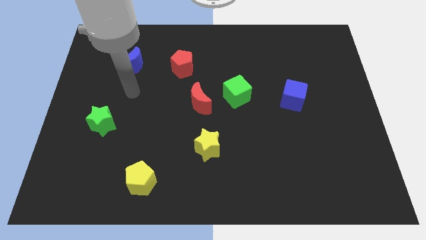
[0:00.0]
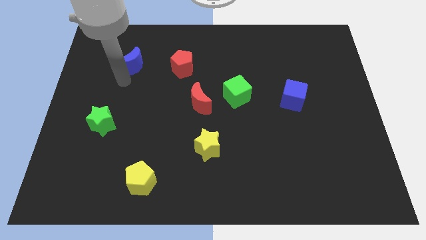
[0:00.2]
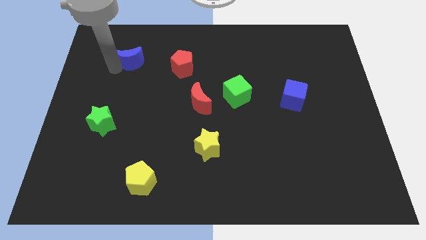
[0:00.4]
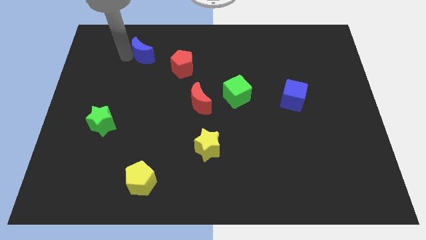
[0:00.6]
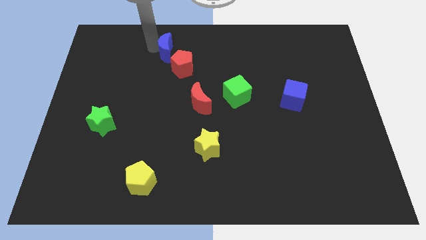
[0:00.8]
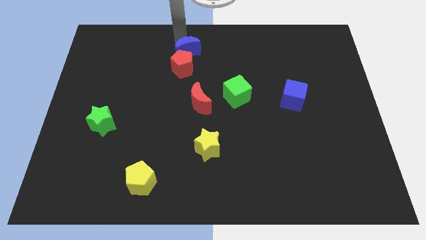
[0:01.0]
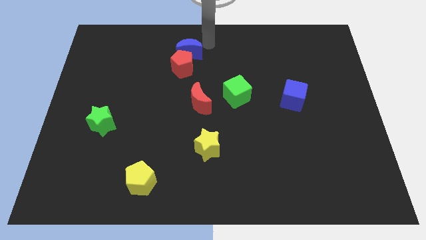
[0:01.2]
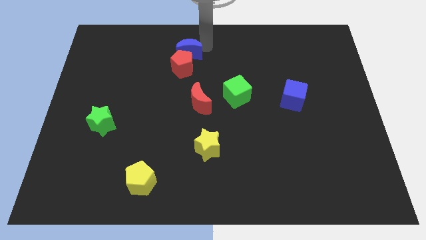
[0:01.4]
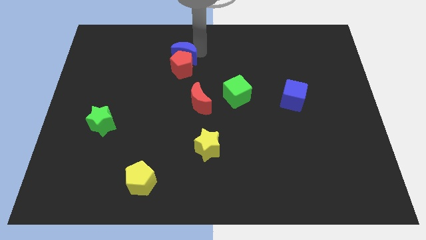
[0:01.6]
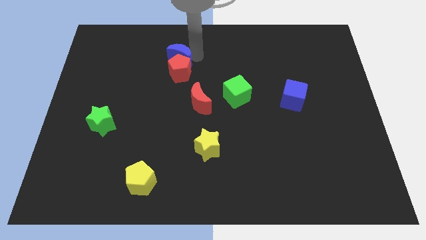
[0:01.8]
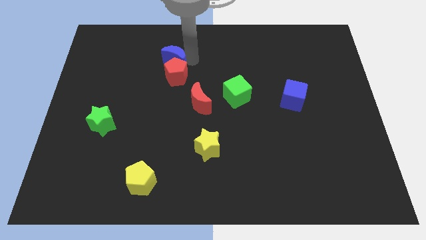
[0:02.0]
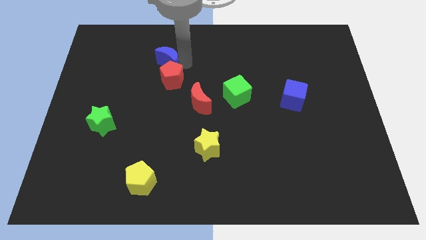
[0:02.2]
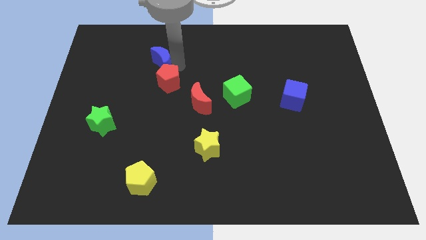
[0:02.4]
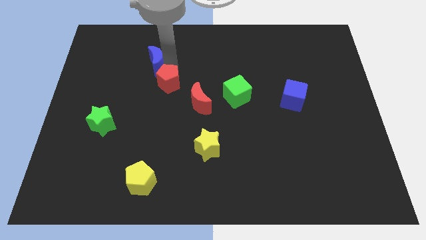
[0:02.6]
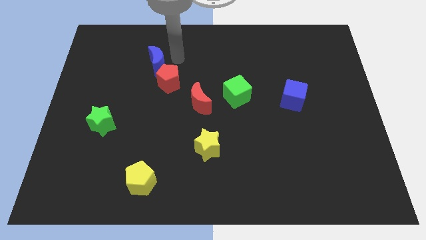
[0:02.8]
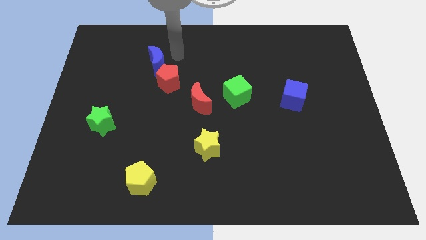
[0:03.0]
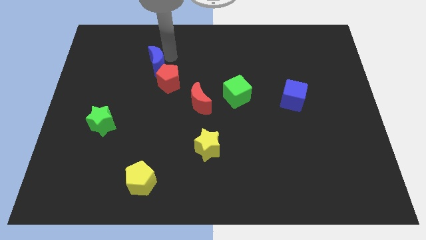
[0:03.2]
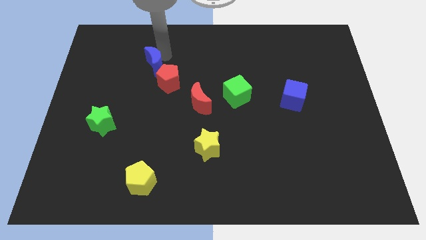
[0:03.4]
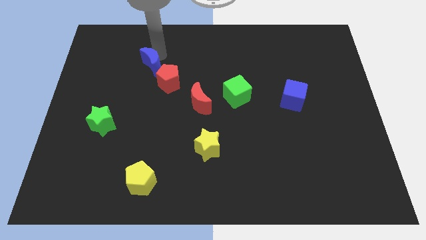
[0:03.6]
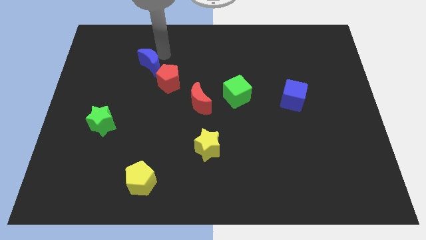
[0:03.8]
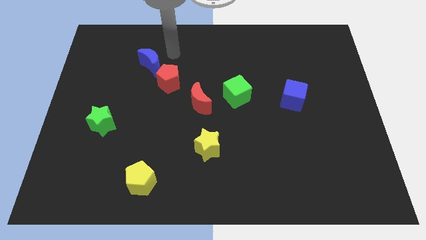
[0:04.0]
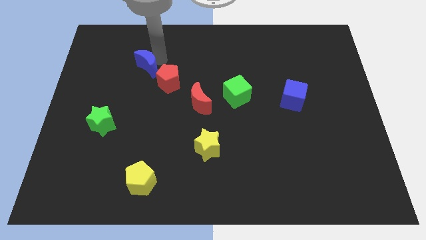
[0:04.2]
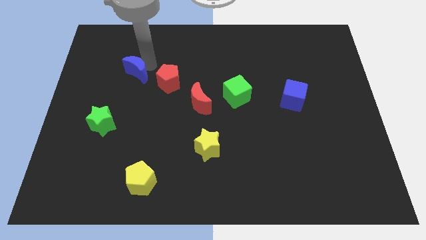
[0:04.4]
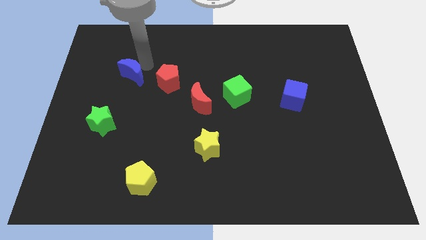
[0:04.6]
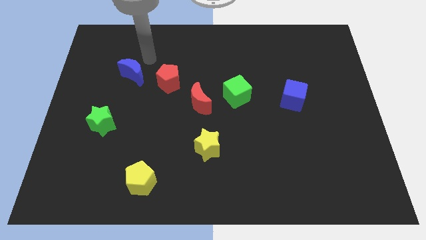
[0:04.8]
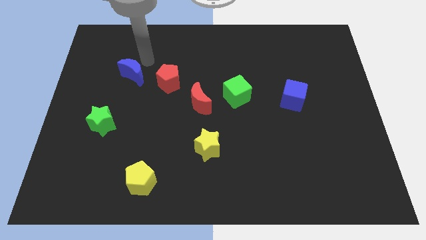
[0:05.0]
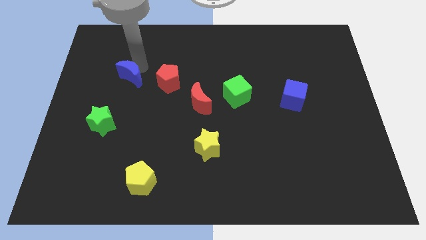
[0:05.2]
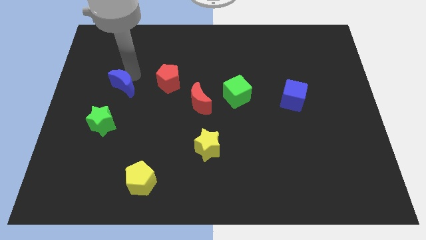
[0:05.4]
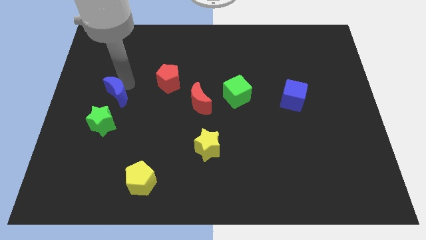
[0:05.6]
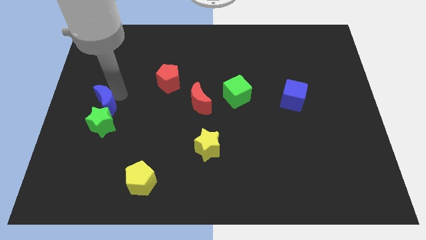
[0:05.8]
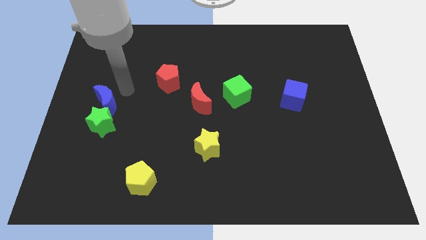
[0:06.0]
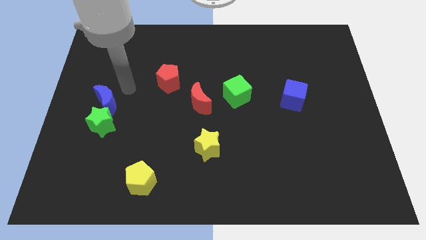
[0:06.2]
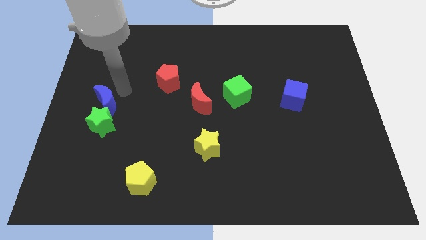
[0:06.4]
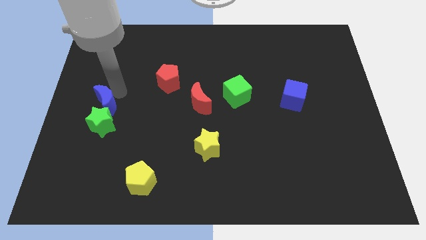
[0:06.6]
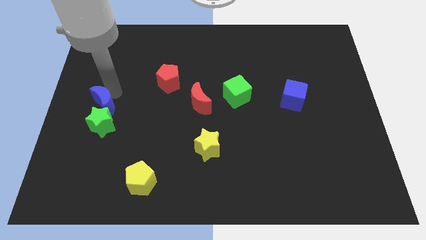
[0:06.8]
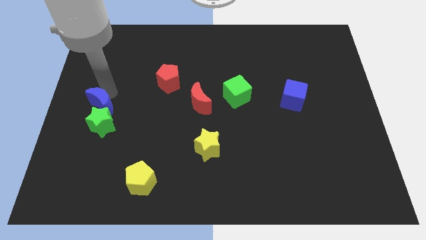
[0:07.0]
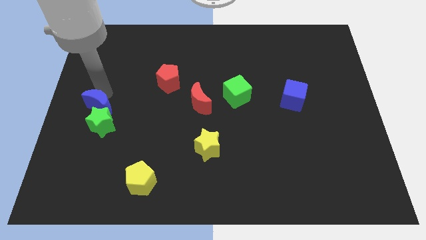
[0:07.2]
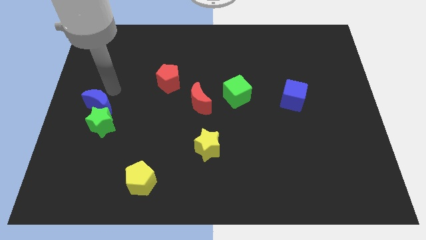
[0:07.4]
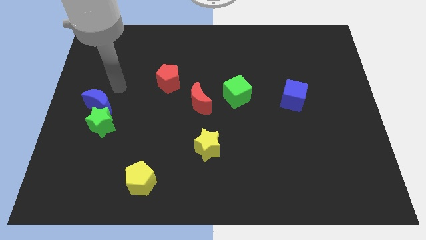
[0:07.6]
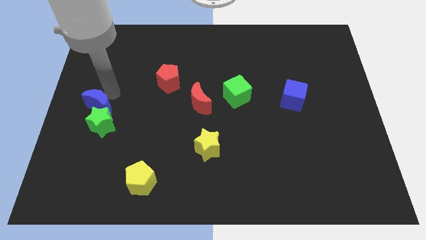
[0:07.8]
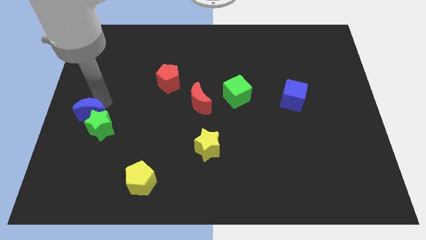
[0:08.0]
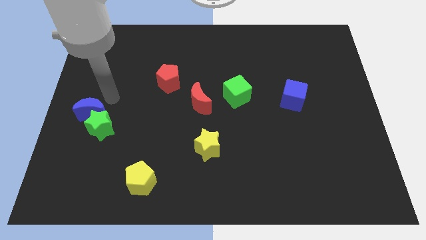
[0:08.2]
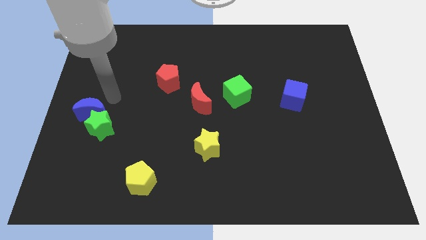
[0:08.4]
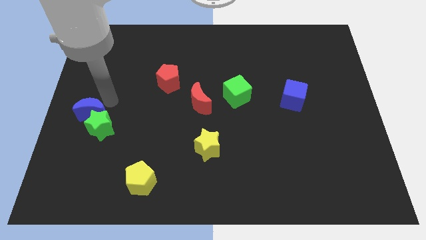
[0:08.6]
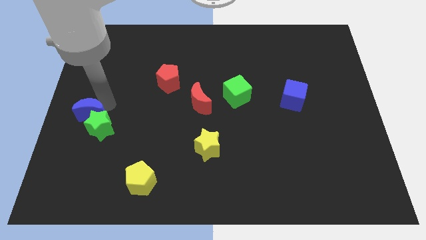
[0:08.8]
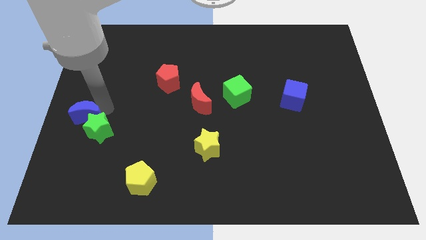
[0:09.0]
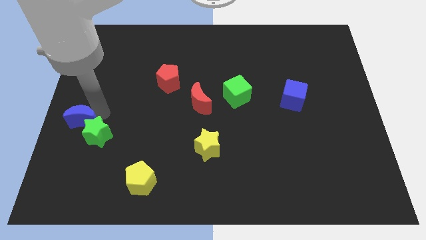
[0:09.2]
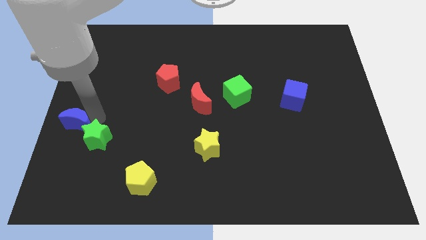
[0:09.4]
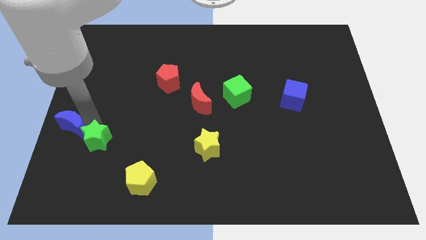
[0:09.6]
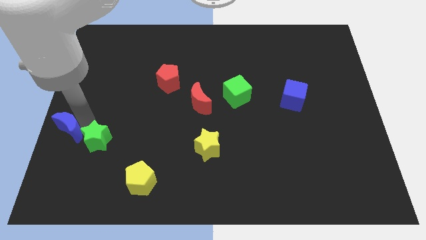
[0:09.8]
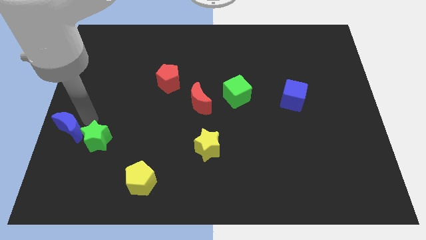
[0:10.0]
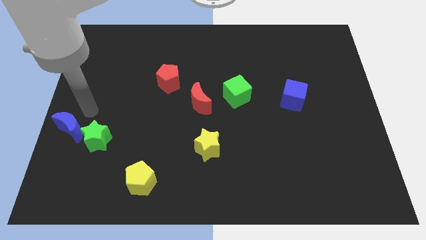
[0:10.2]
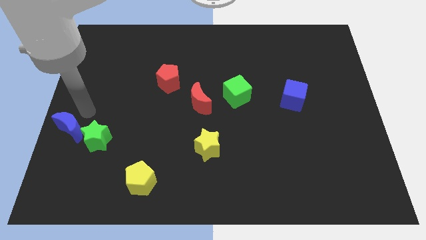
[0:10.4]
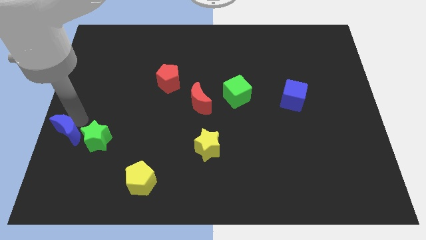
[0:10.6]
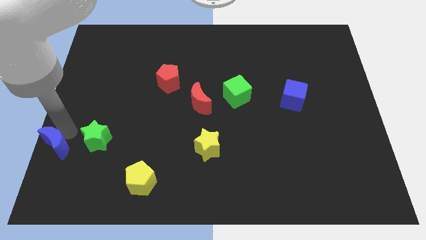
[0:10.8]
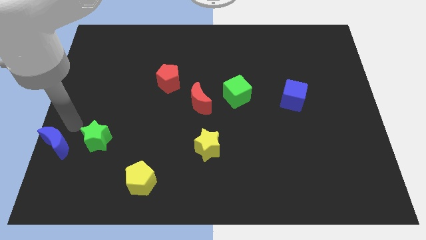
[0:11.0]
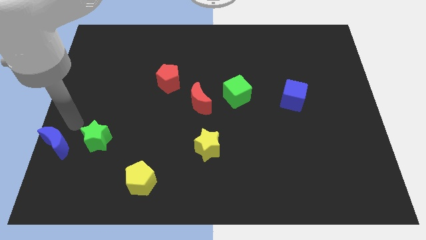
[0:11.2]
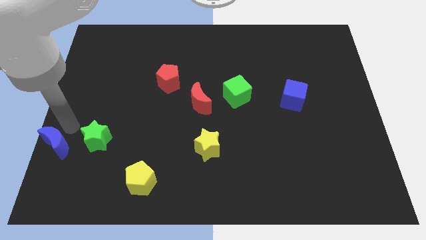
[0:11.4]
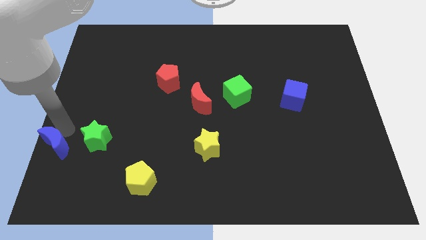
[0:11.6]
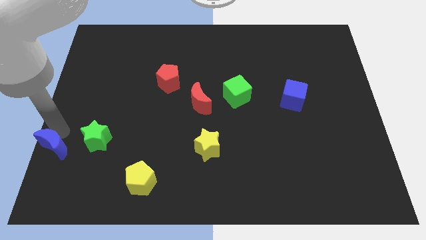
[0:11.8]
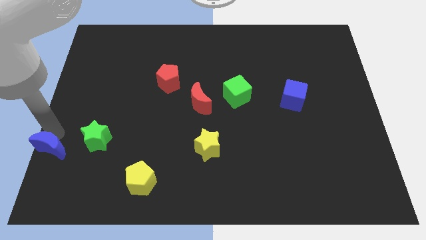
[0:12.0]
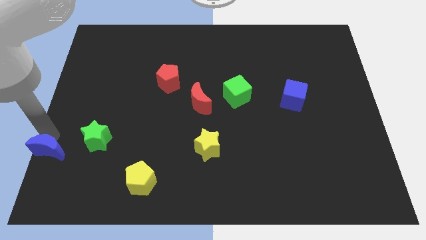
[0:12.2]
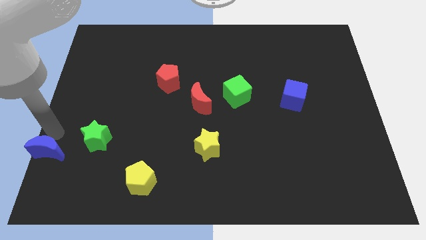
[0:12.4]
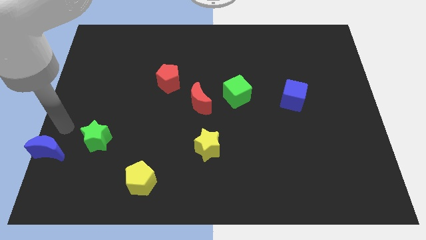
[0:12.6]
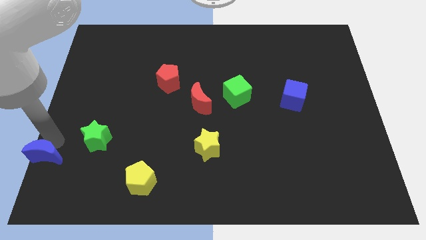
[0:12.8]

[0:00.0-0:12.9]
put the blue moon to the bottom left of the board

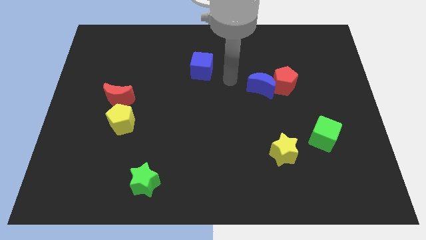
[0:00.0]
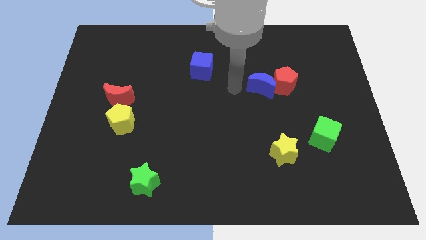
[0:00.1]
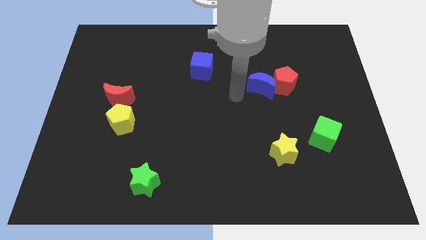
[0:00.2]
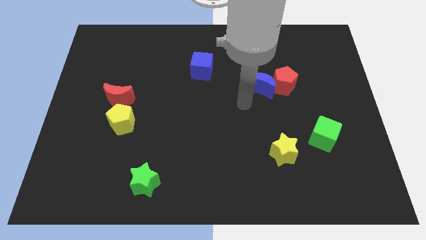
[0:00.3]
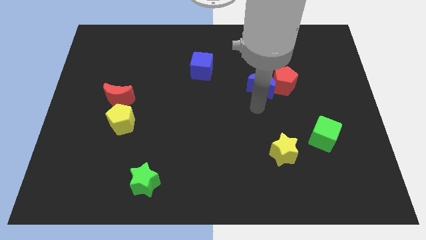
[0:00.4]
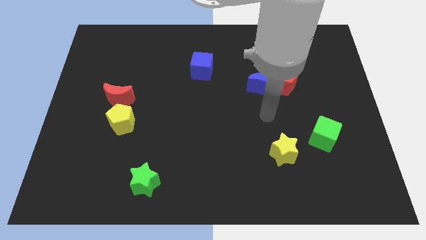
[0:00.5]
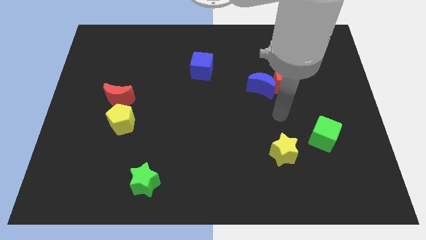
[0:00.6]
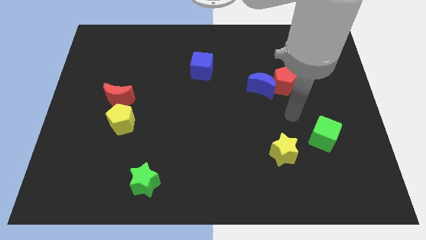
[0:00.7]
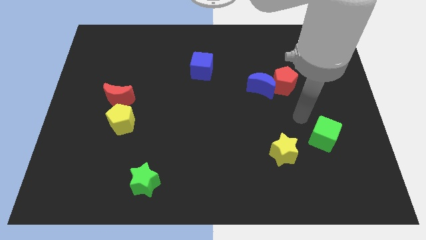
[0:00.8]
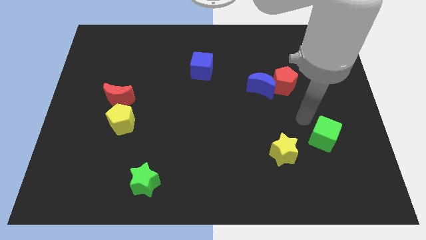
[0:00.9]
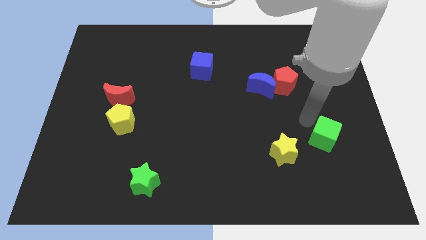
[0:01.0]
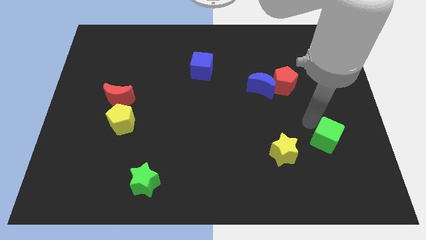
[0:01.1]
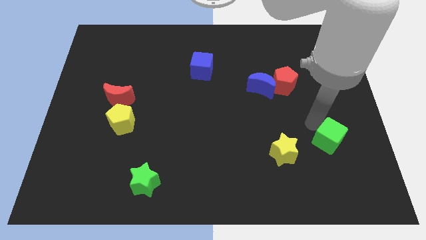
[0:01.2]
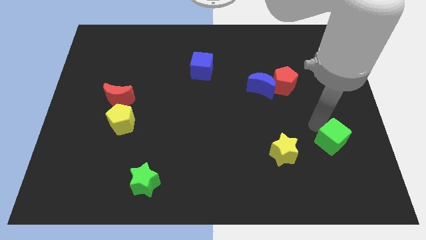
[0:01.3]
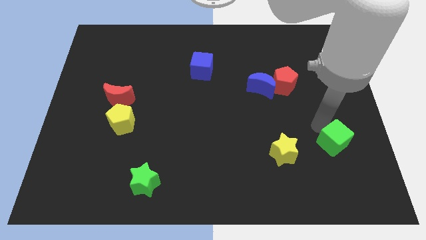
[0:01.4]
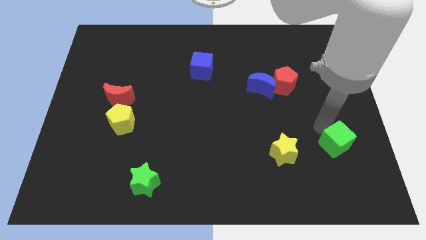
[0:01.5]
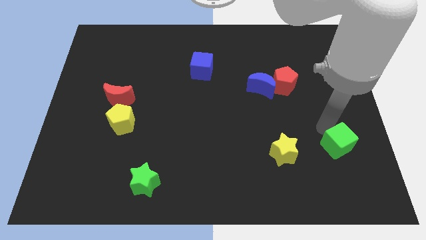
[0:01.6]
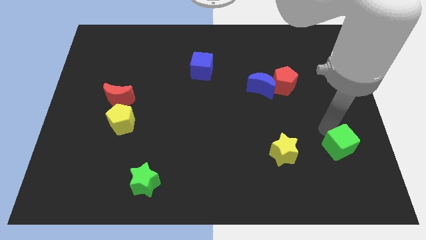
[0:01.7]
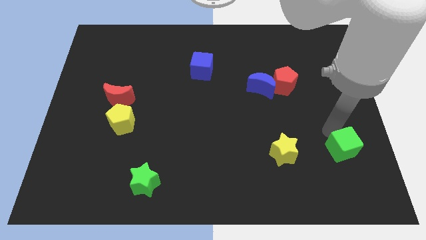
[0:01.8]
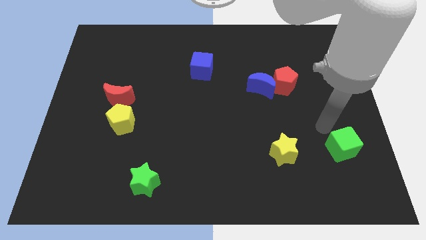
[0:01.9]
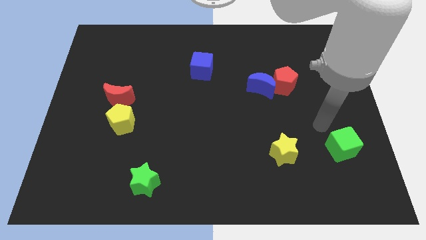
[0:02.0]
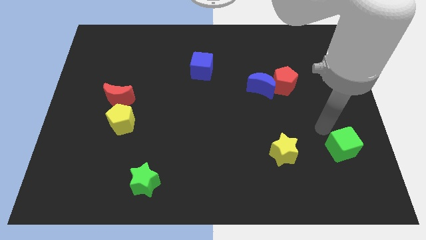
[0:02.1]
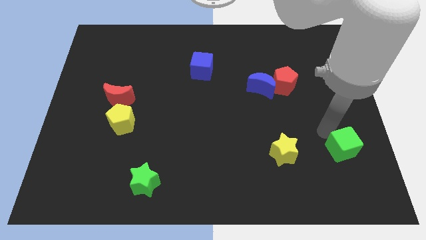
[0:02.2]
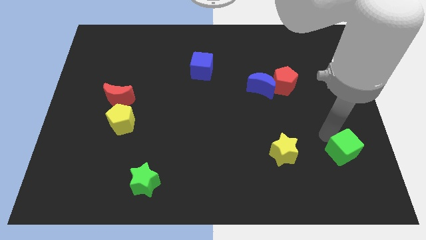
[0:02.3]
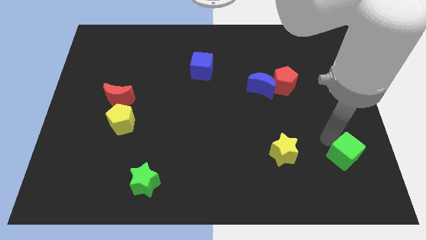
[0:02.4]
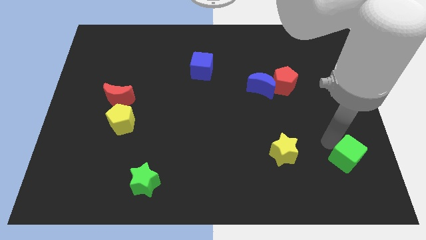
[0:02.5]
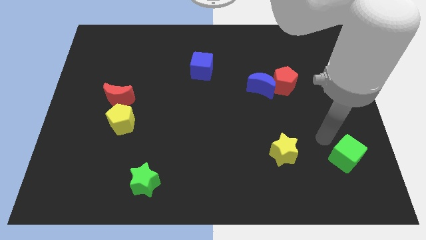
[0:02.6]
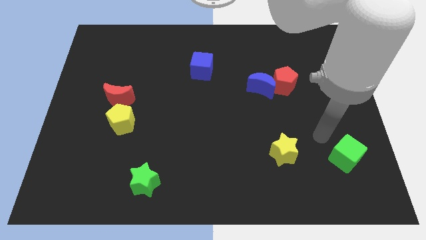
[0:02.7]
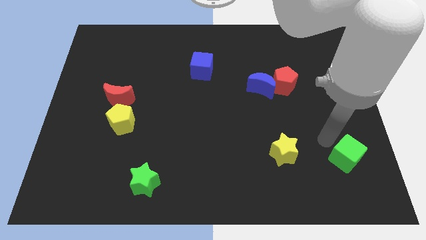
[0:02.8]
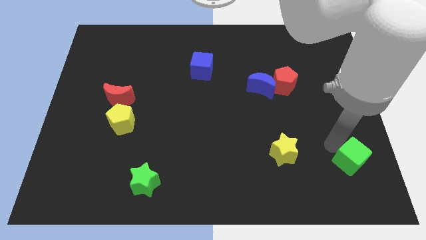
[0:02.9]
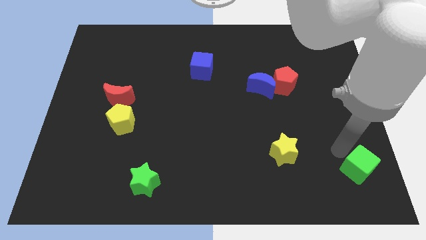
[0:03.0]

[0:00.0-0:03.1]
put the green cube to the bottom right
